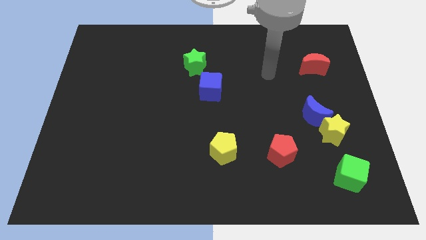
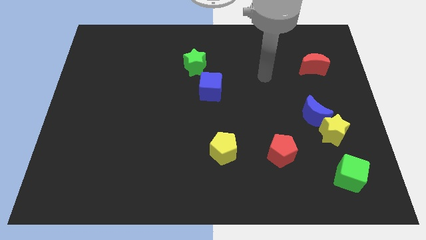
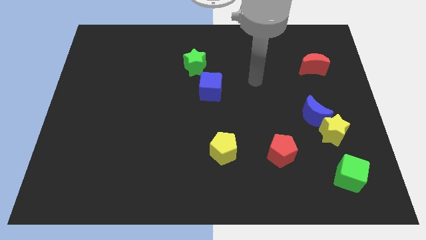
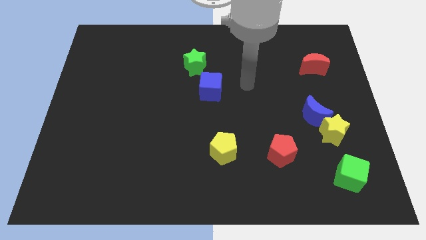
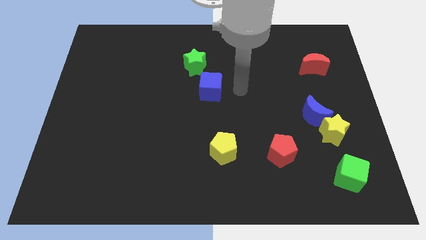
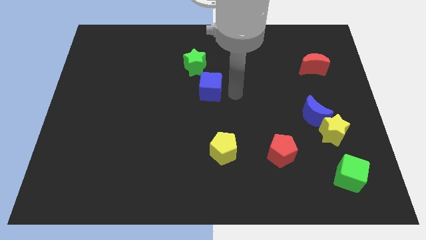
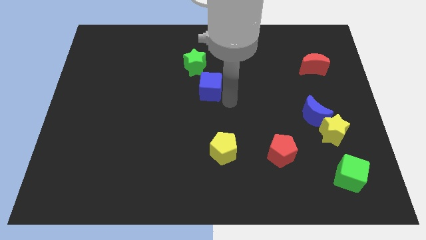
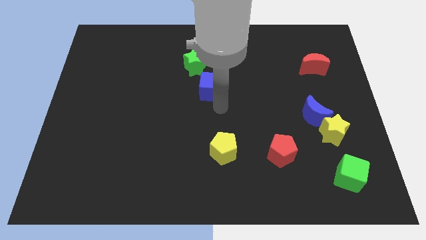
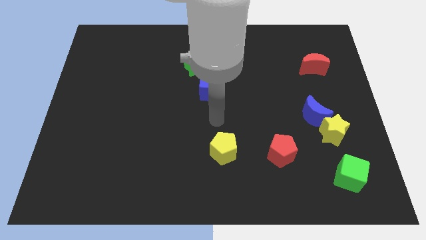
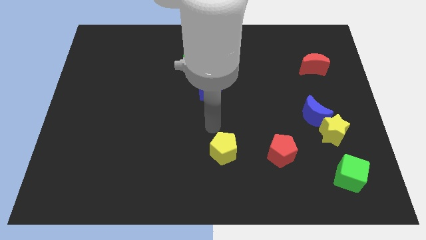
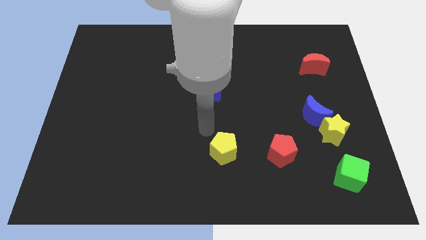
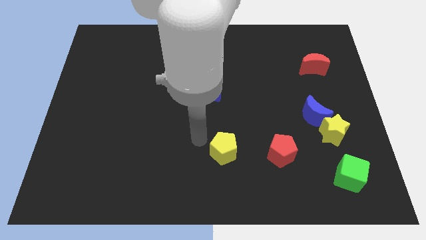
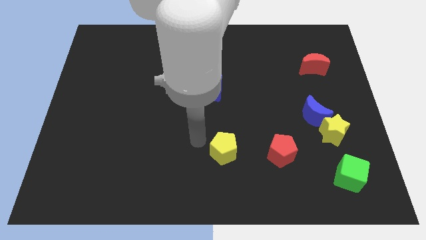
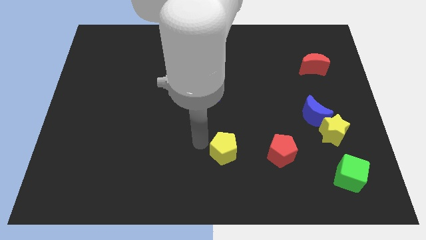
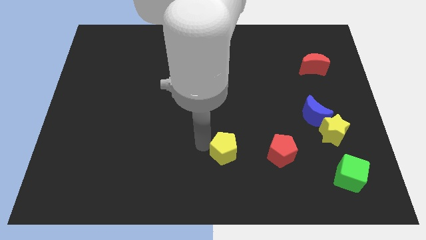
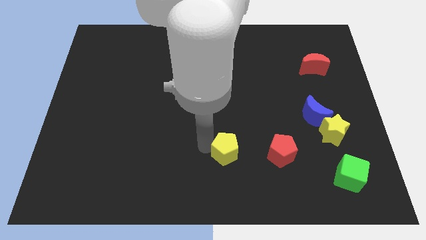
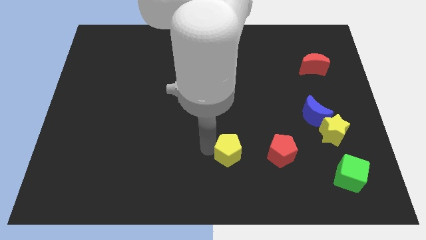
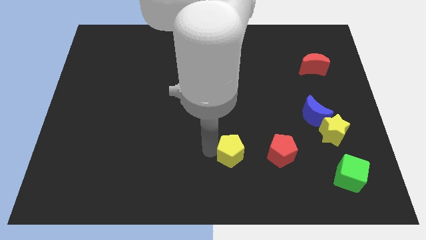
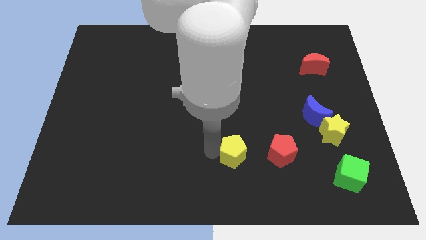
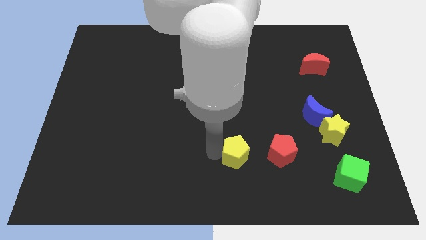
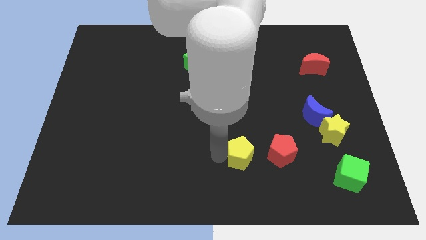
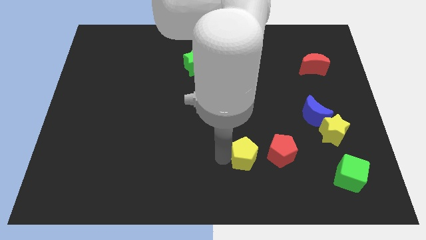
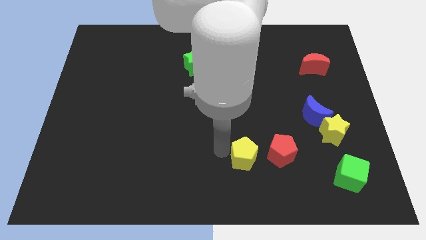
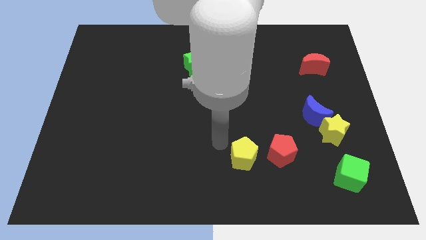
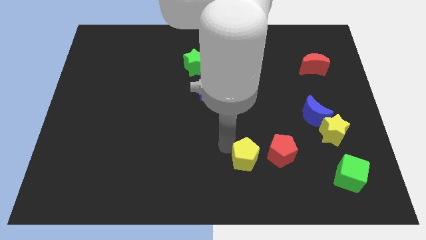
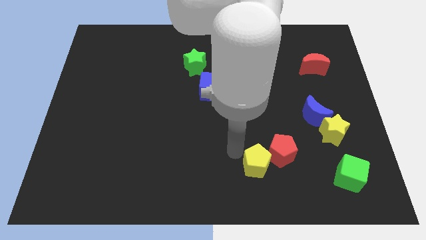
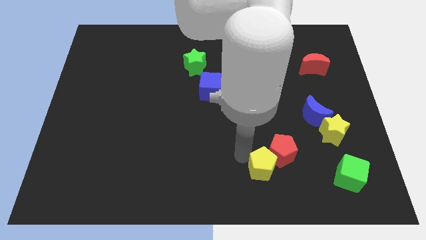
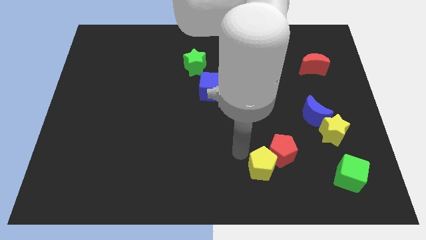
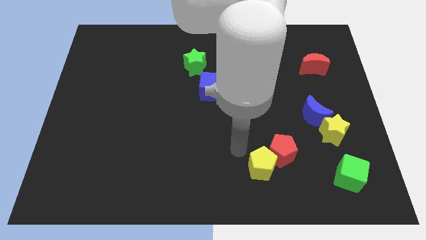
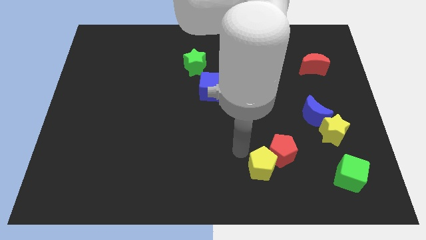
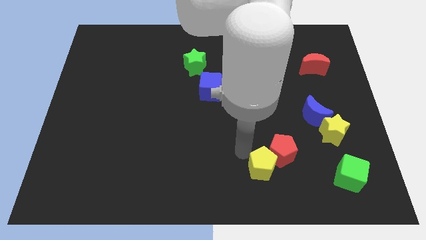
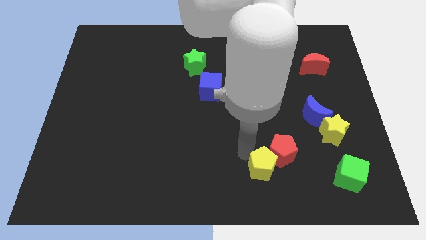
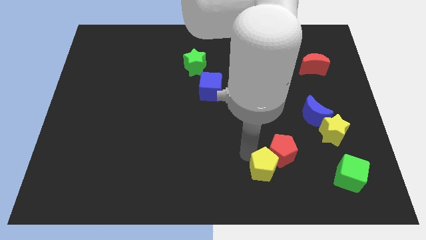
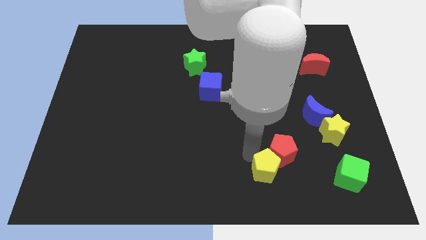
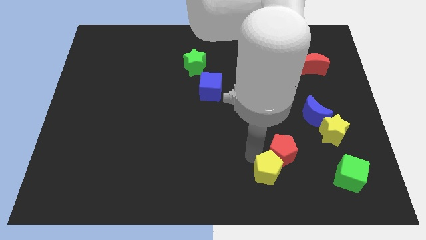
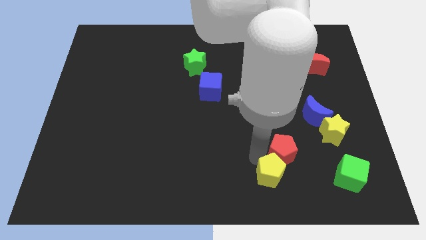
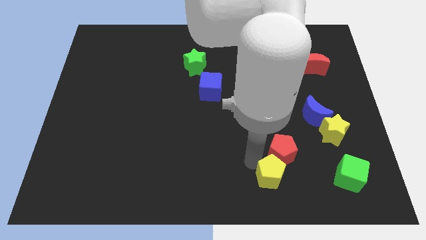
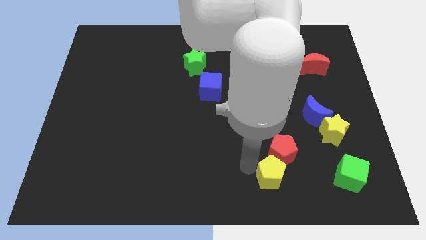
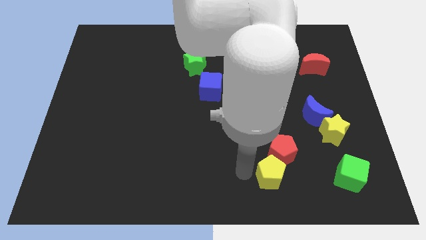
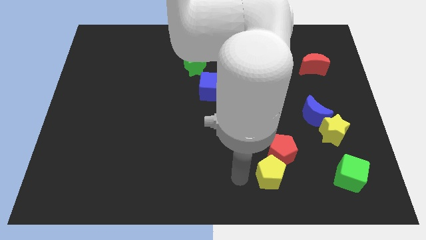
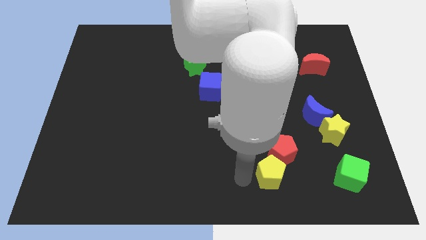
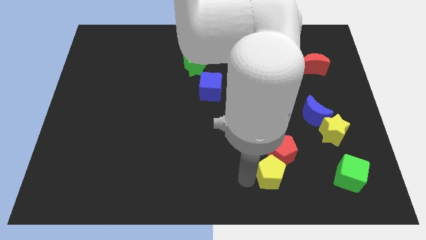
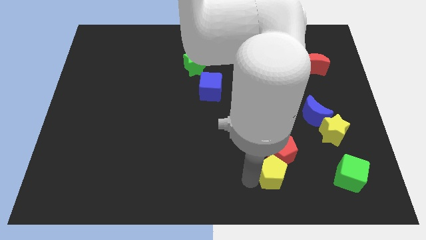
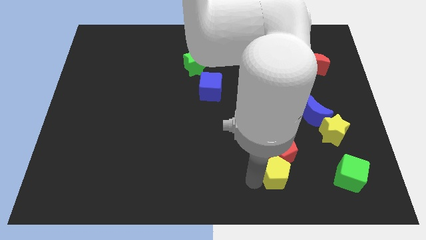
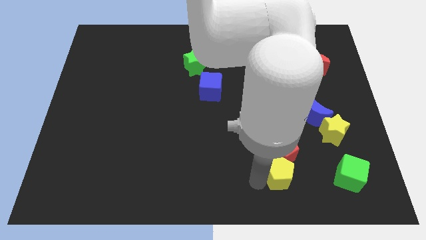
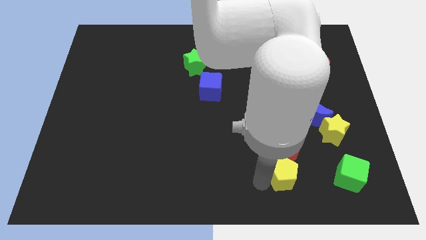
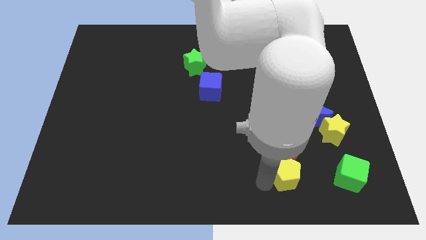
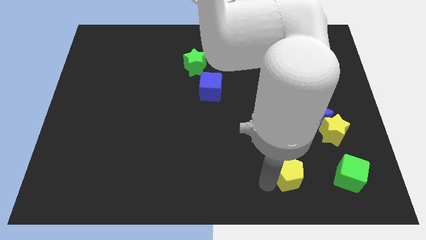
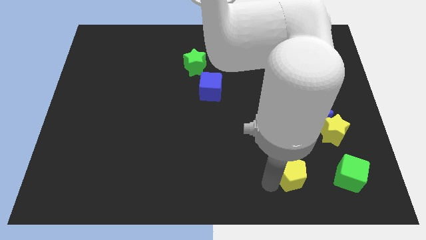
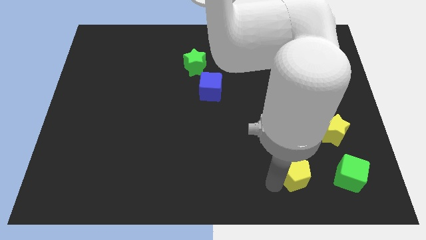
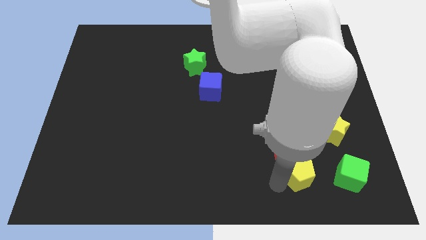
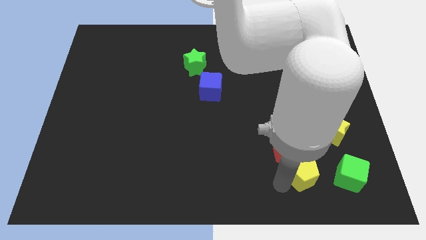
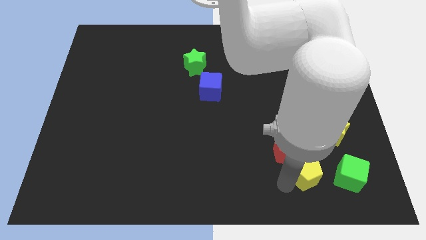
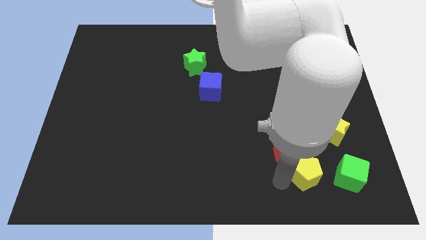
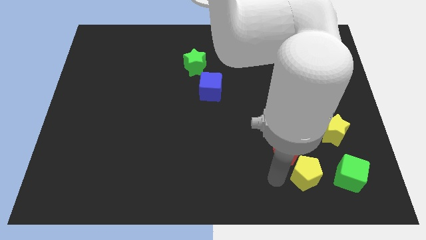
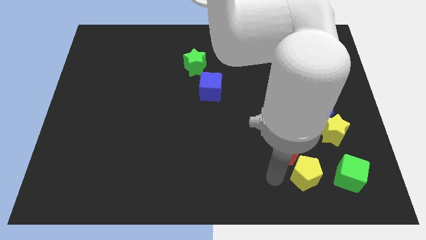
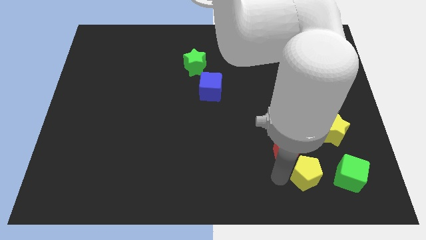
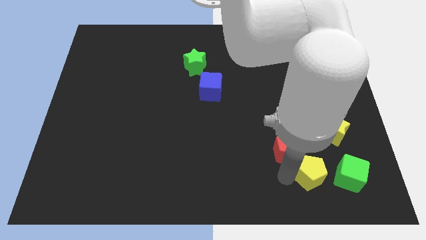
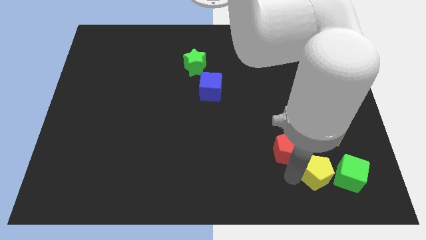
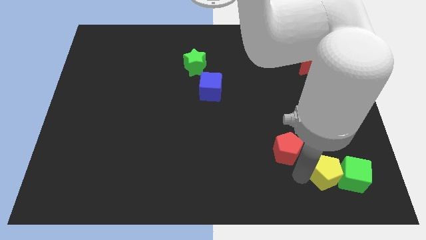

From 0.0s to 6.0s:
move the yellow pentagon close to the green cube

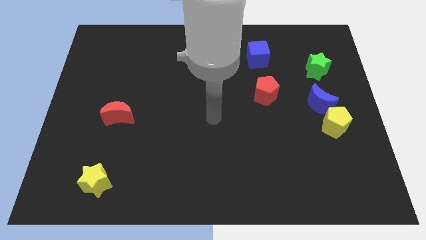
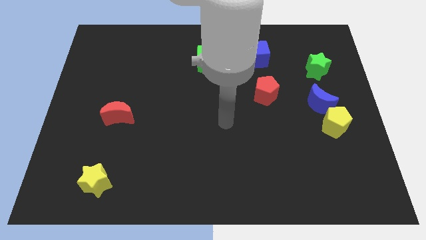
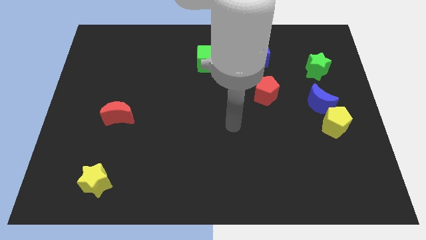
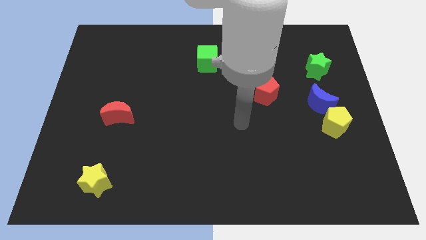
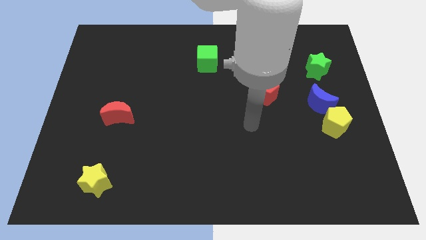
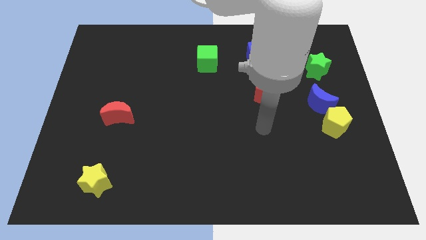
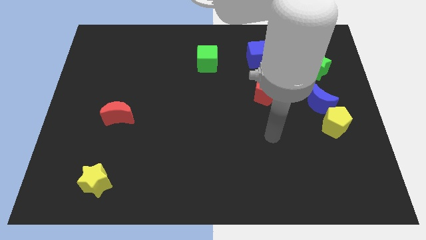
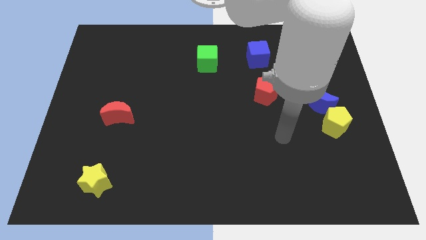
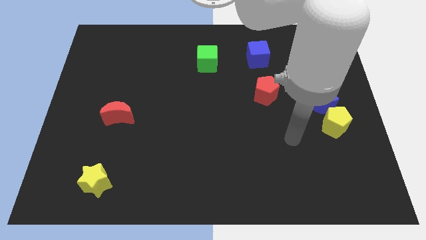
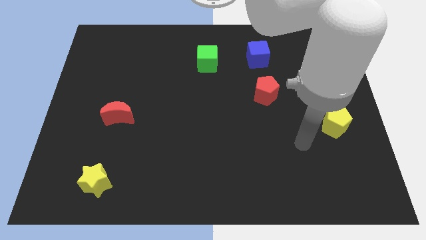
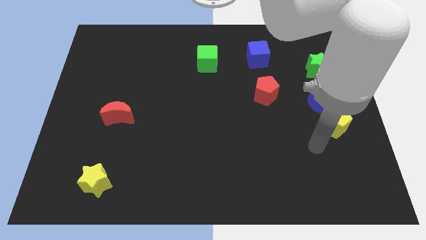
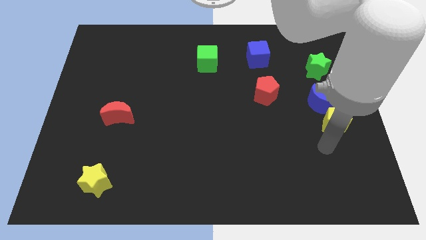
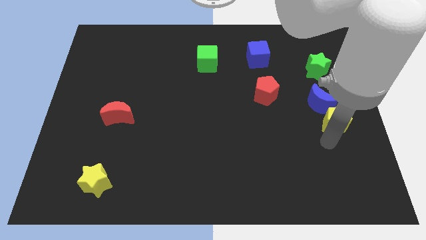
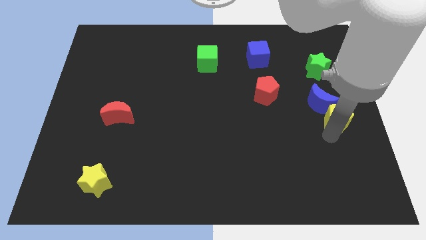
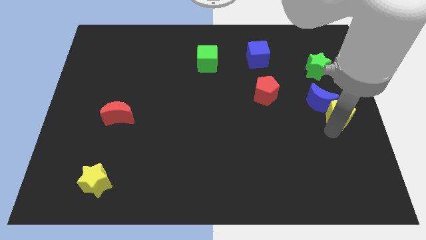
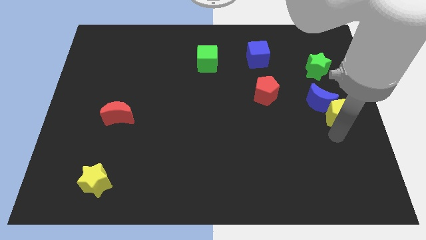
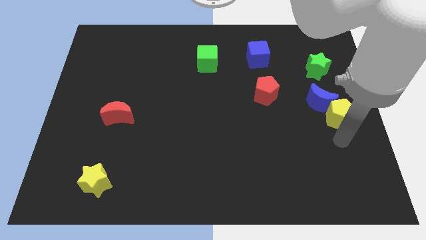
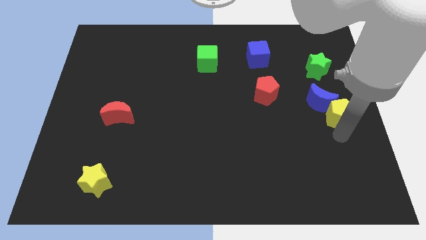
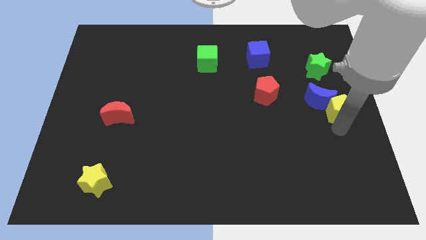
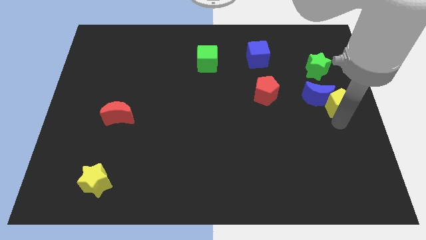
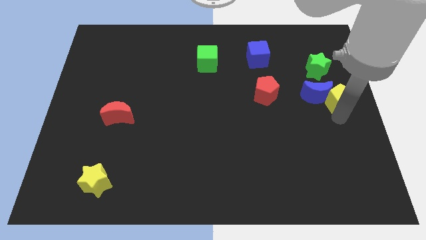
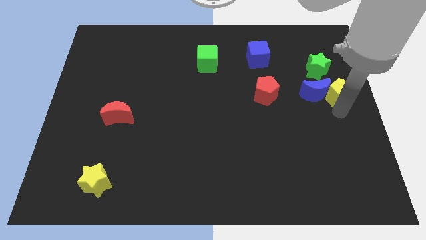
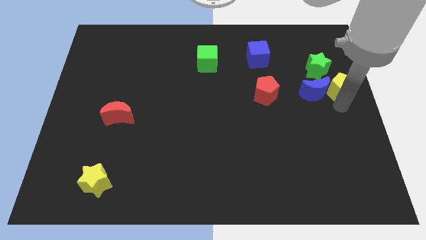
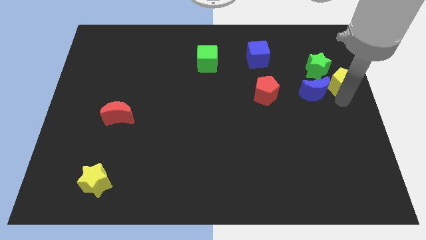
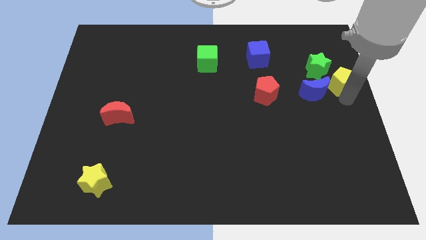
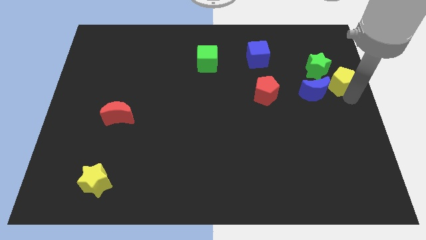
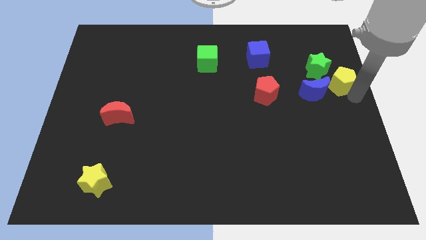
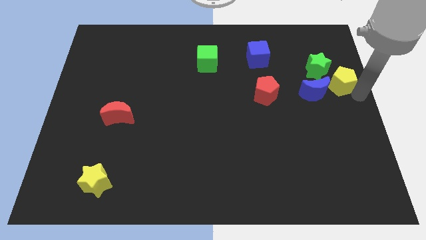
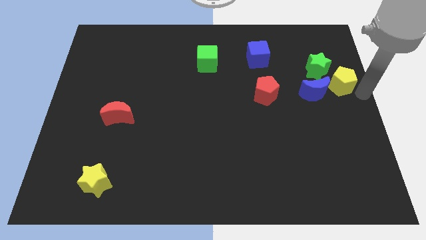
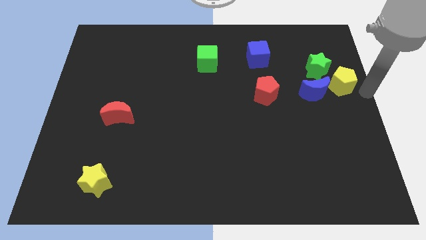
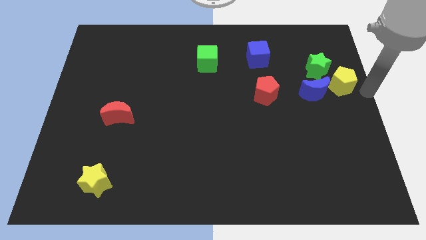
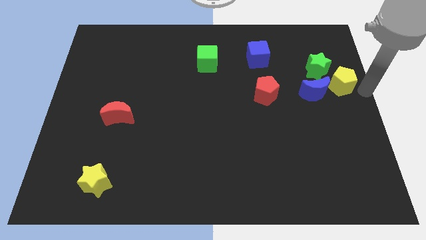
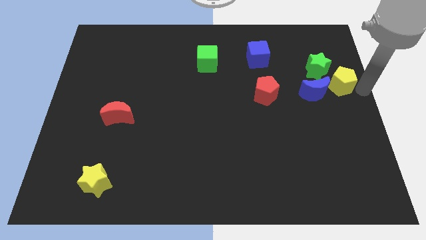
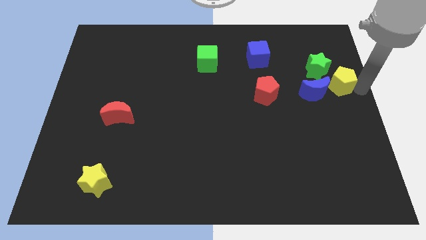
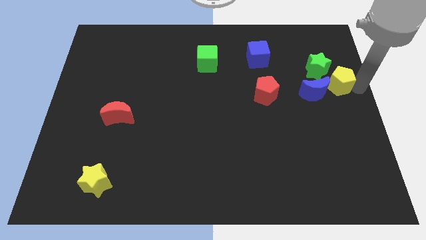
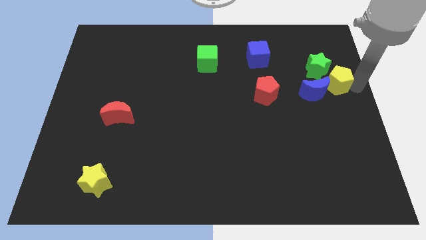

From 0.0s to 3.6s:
put the yellow pentagon next to the green star
